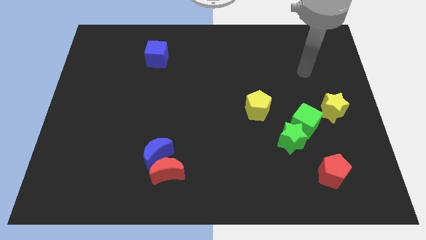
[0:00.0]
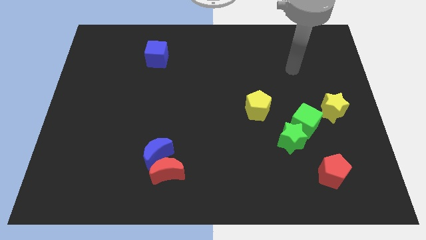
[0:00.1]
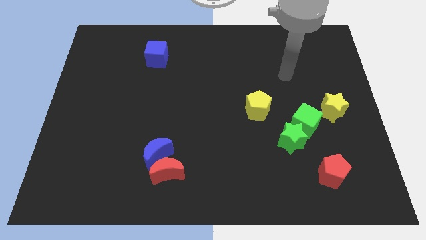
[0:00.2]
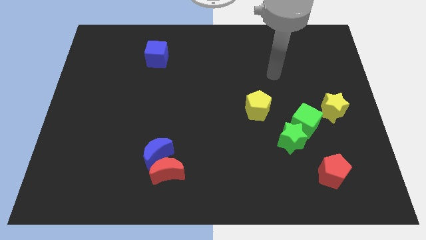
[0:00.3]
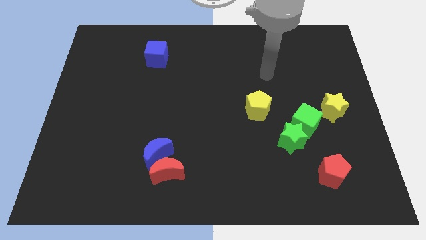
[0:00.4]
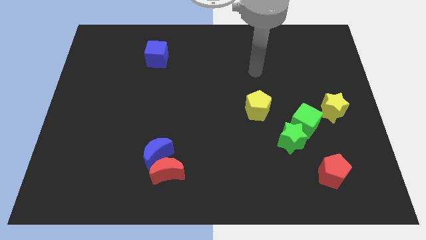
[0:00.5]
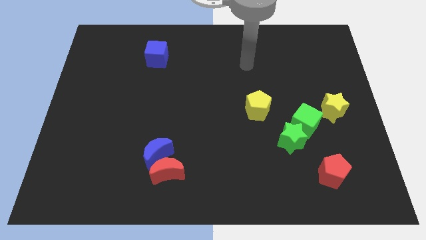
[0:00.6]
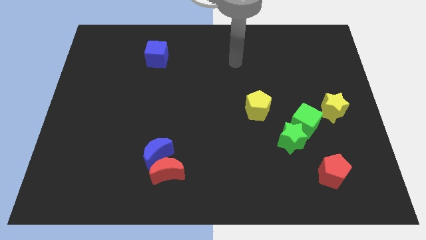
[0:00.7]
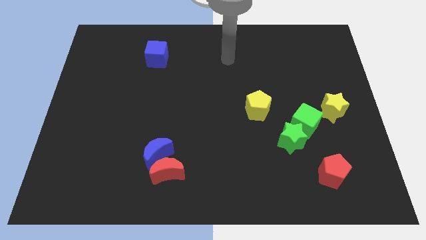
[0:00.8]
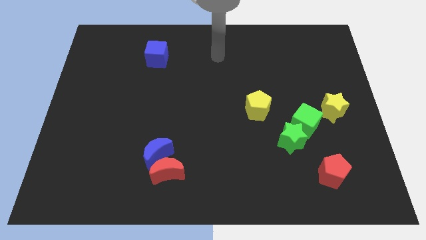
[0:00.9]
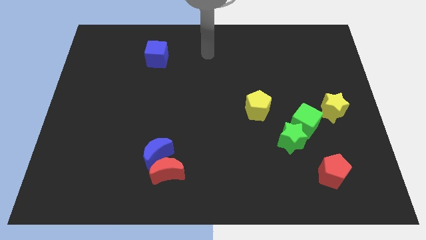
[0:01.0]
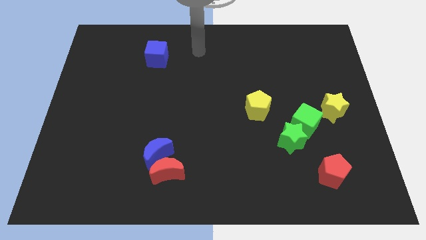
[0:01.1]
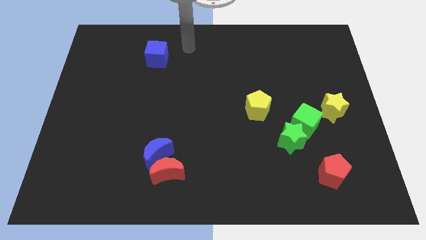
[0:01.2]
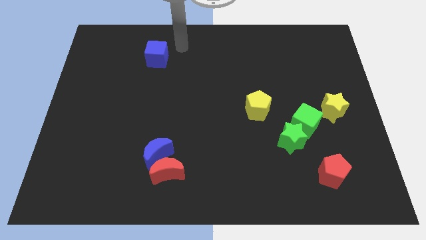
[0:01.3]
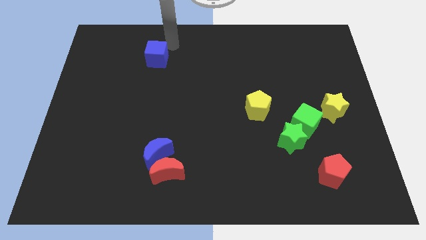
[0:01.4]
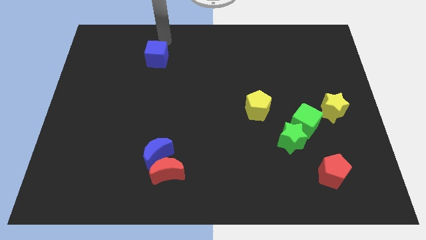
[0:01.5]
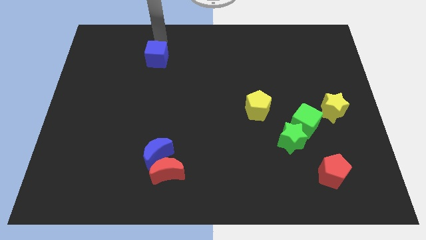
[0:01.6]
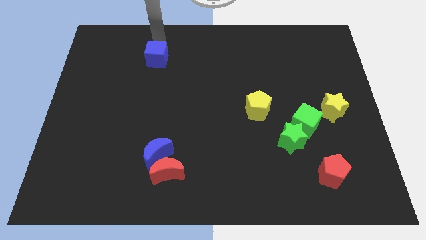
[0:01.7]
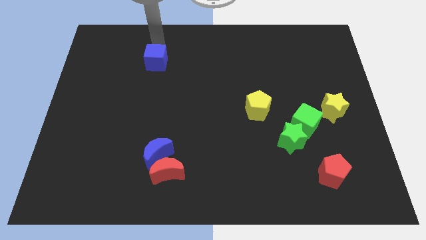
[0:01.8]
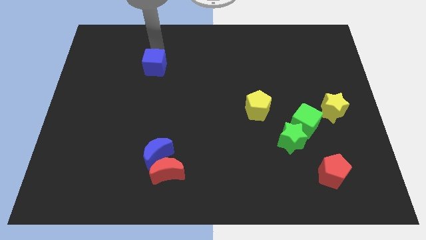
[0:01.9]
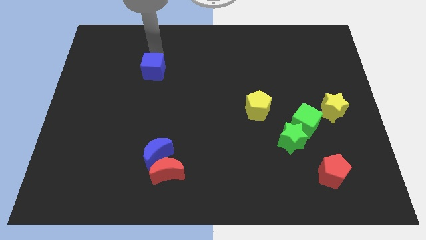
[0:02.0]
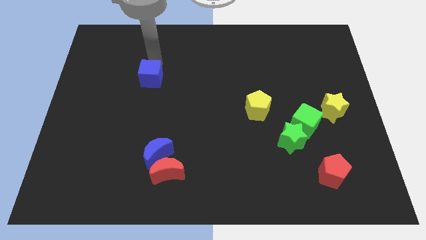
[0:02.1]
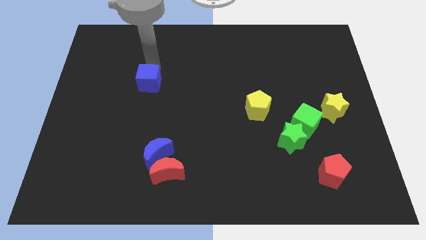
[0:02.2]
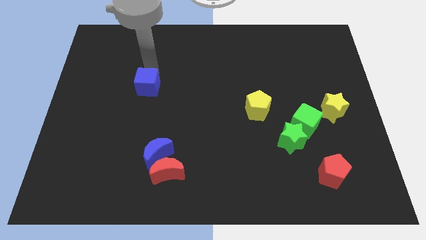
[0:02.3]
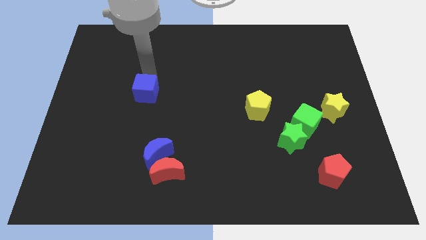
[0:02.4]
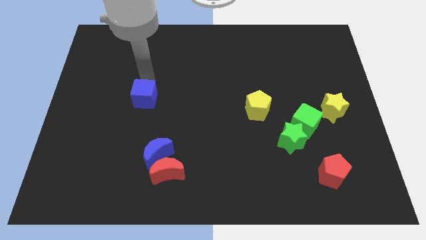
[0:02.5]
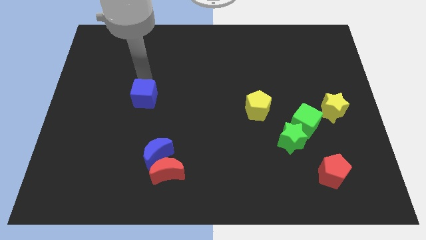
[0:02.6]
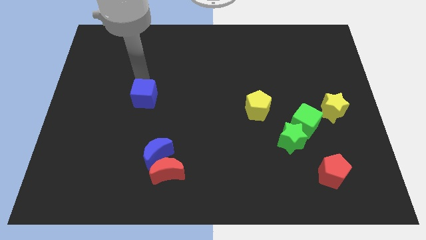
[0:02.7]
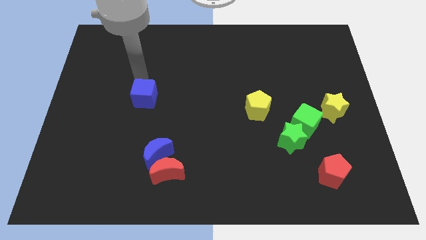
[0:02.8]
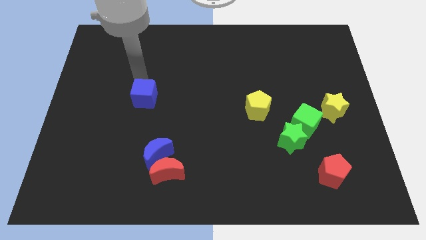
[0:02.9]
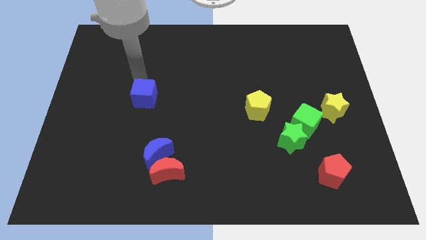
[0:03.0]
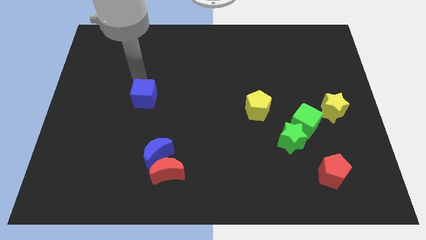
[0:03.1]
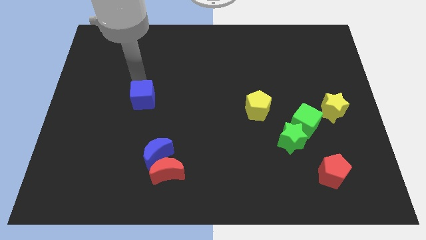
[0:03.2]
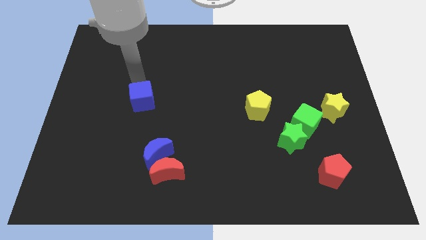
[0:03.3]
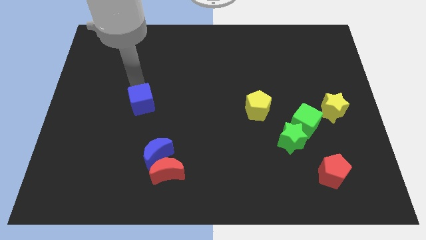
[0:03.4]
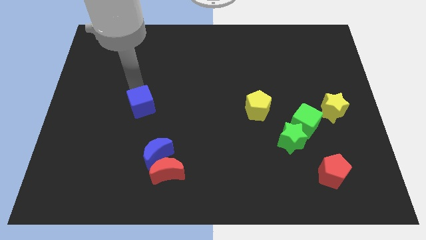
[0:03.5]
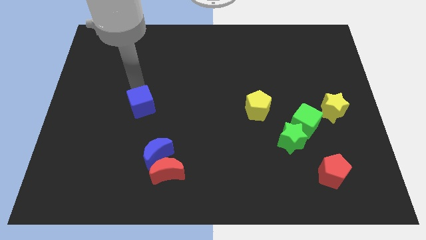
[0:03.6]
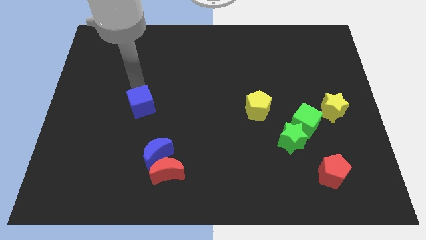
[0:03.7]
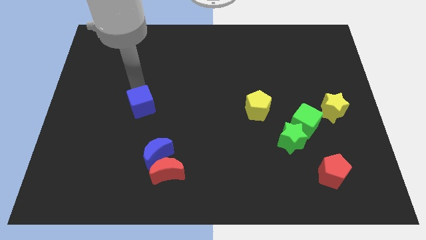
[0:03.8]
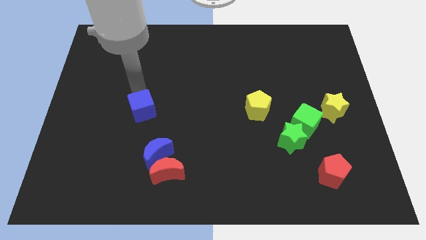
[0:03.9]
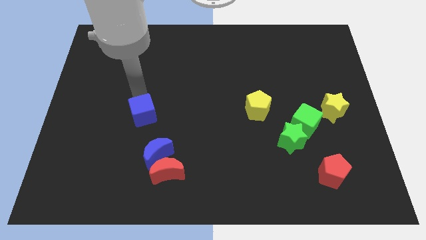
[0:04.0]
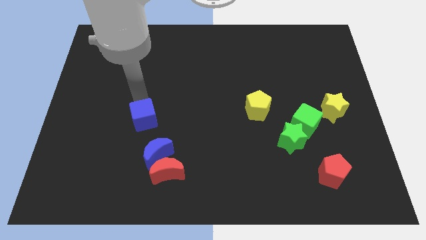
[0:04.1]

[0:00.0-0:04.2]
move the blue cube downwards

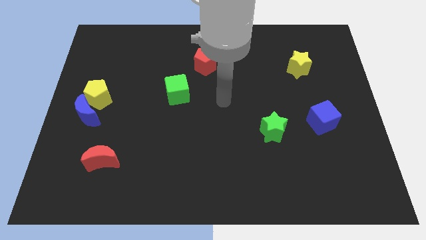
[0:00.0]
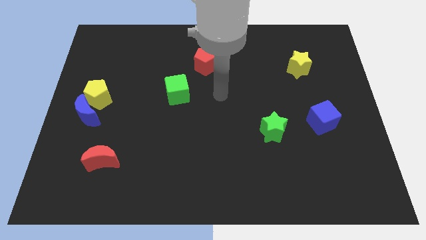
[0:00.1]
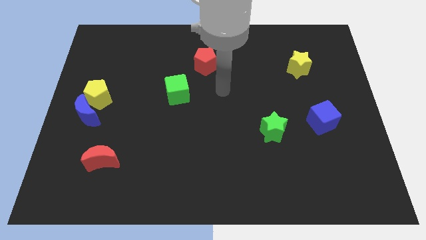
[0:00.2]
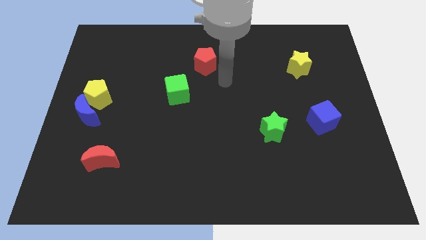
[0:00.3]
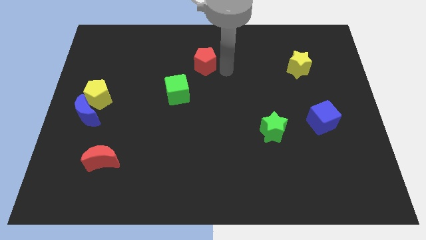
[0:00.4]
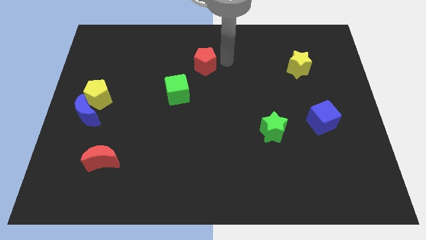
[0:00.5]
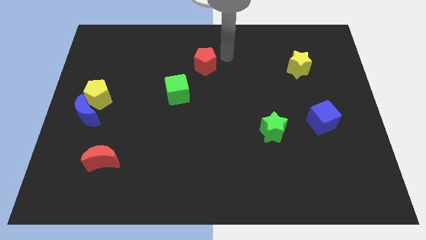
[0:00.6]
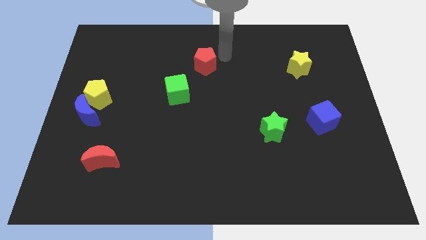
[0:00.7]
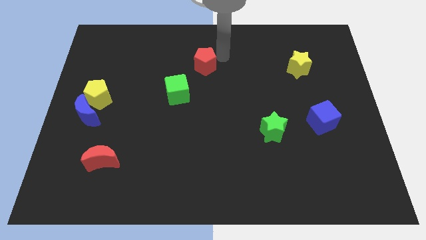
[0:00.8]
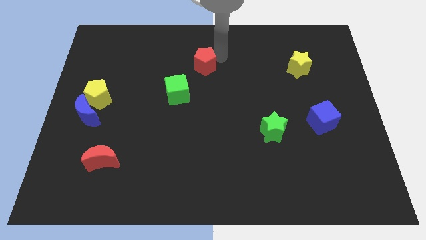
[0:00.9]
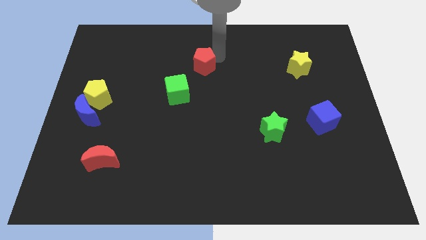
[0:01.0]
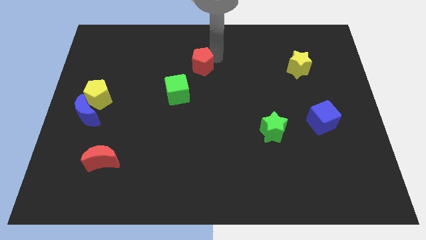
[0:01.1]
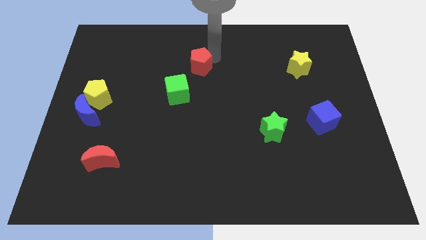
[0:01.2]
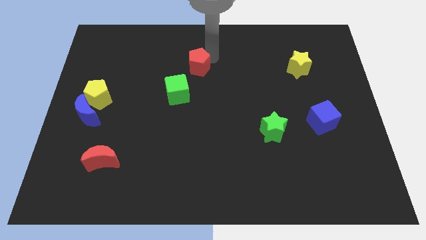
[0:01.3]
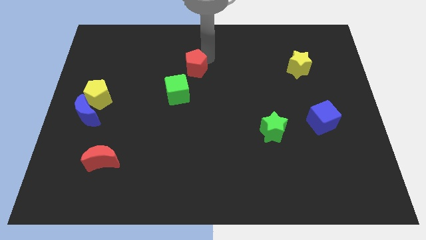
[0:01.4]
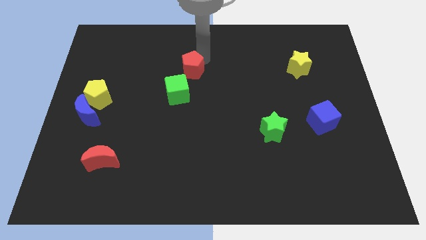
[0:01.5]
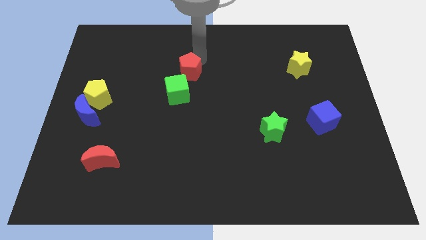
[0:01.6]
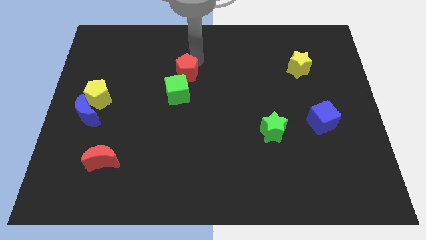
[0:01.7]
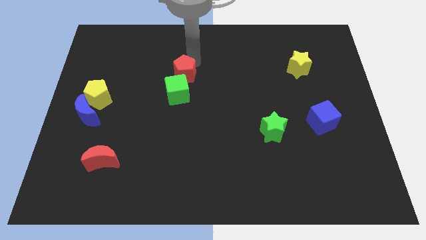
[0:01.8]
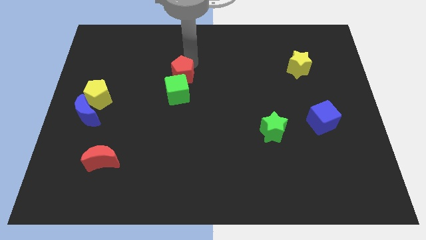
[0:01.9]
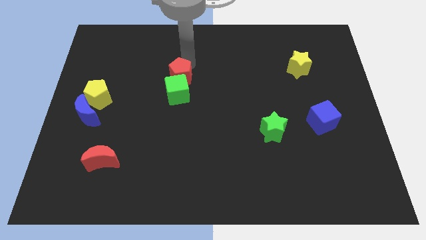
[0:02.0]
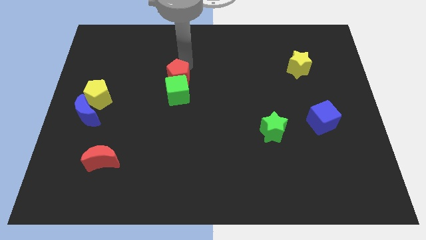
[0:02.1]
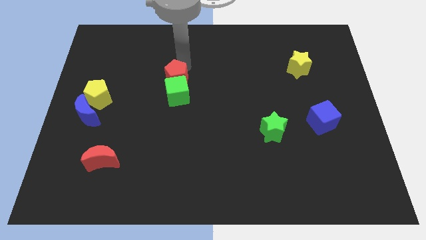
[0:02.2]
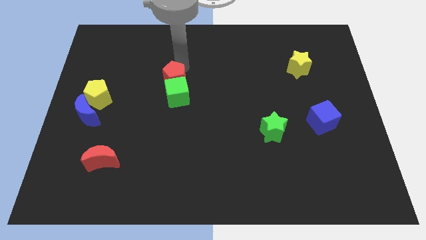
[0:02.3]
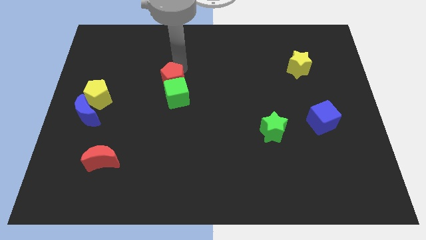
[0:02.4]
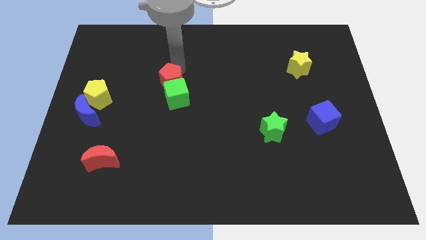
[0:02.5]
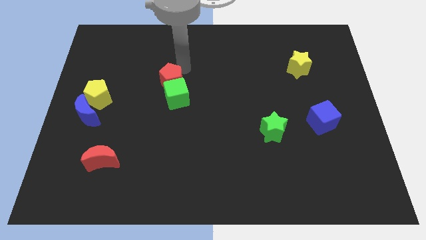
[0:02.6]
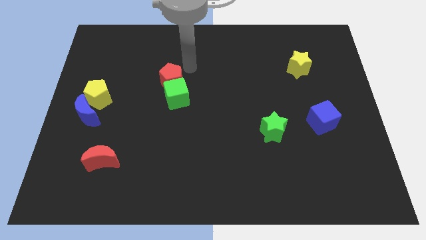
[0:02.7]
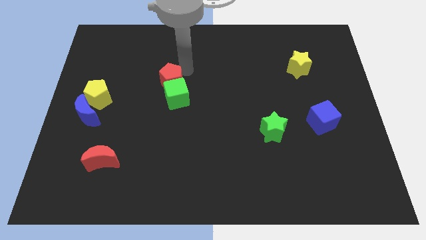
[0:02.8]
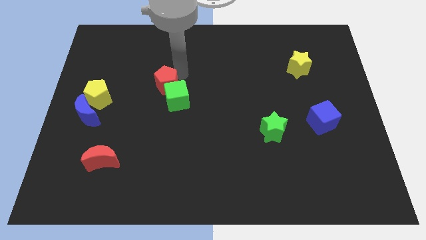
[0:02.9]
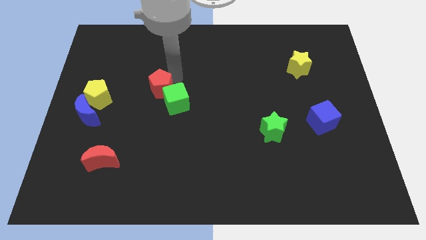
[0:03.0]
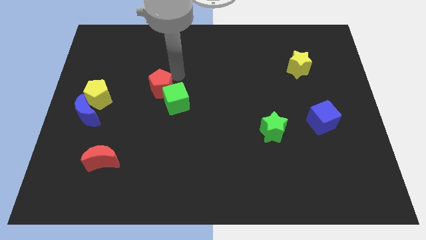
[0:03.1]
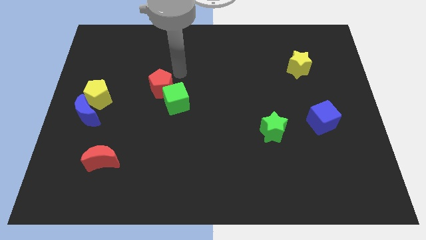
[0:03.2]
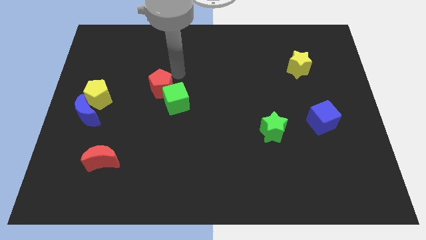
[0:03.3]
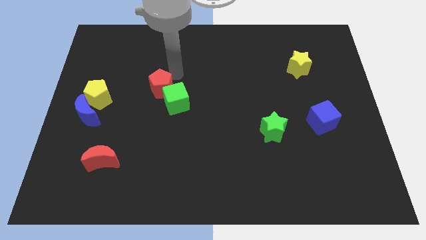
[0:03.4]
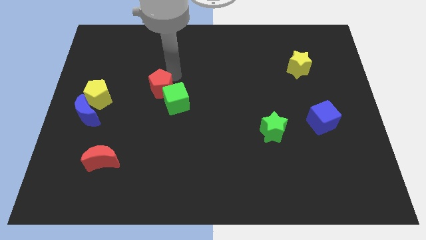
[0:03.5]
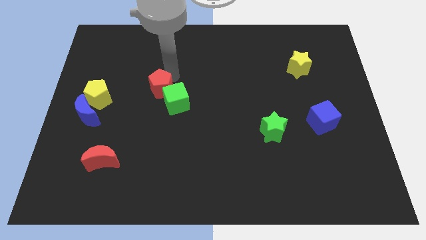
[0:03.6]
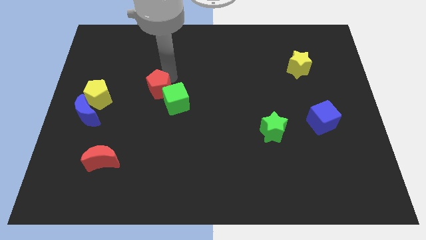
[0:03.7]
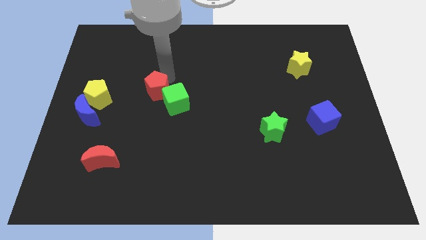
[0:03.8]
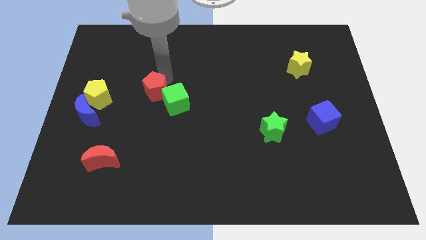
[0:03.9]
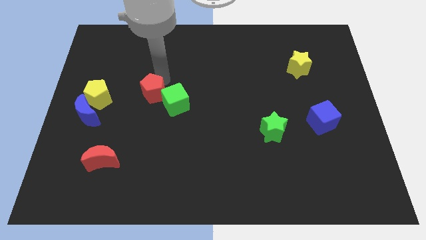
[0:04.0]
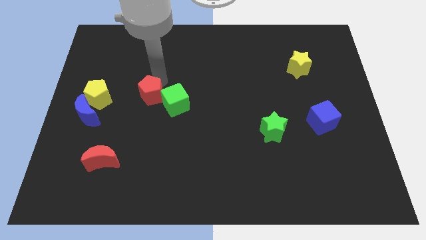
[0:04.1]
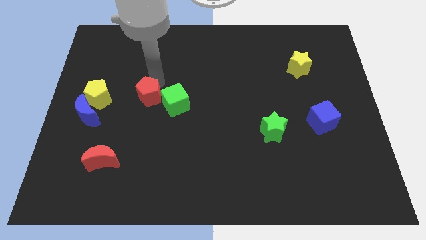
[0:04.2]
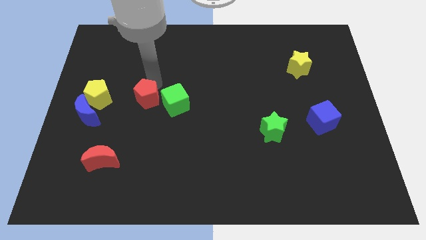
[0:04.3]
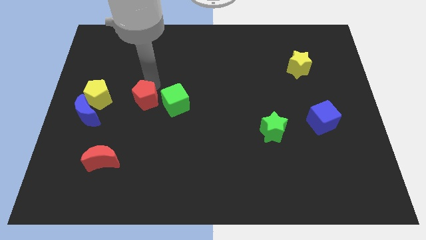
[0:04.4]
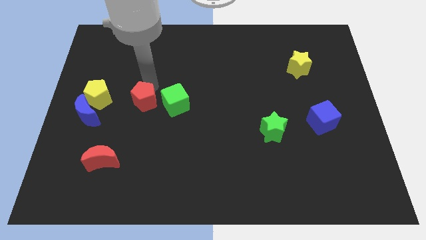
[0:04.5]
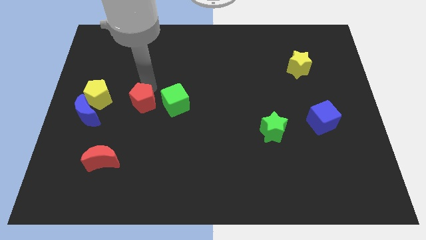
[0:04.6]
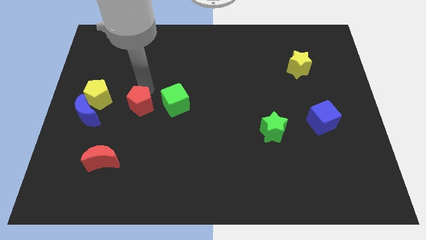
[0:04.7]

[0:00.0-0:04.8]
move the red pentagon diagonally downwards and left
